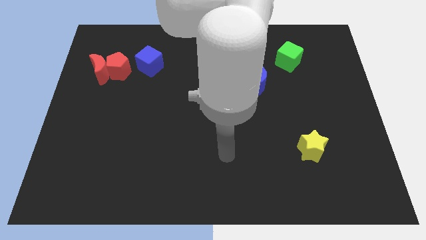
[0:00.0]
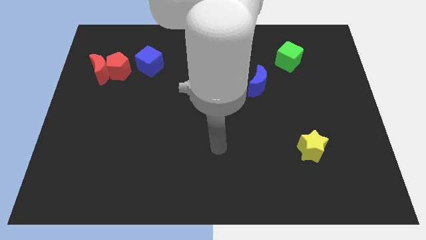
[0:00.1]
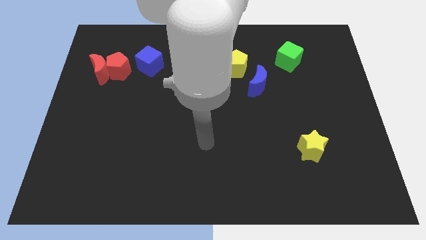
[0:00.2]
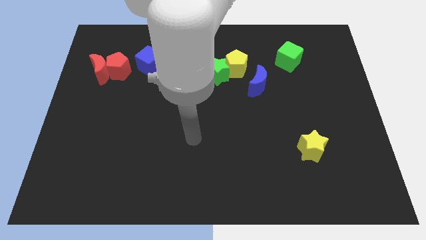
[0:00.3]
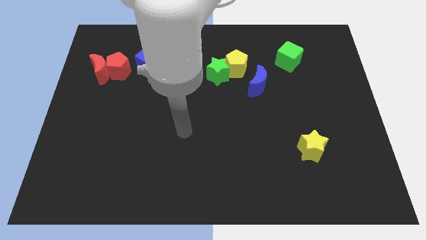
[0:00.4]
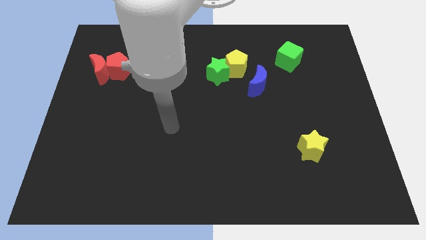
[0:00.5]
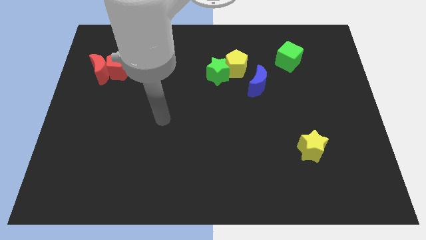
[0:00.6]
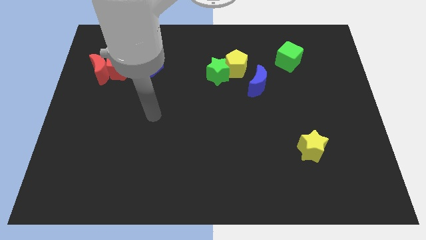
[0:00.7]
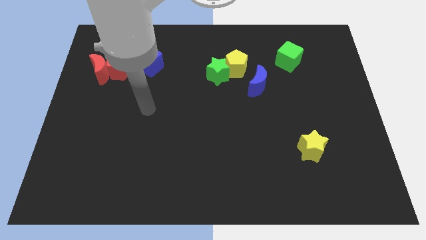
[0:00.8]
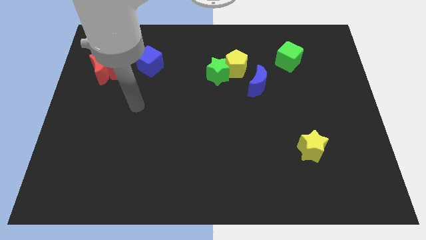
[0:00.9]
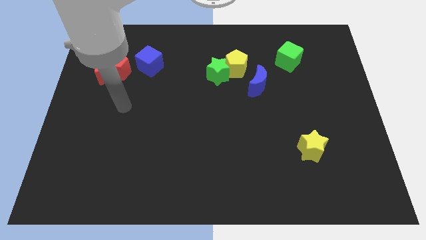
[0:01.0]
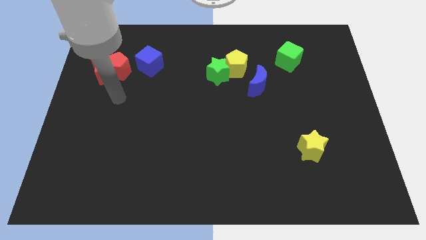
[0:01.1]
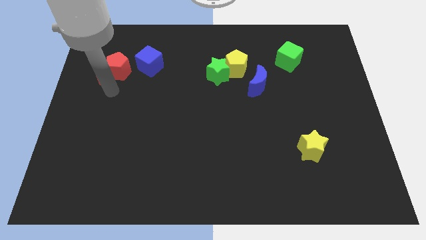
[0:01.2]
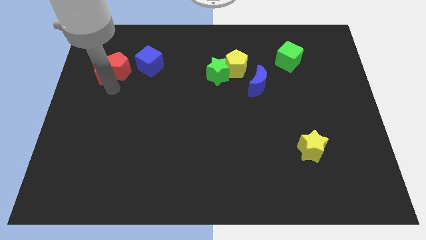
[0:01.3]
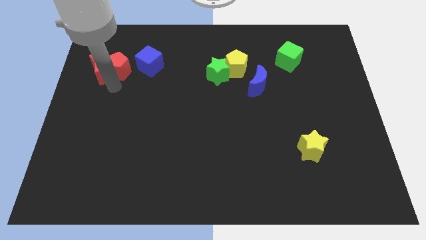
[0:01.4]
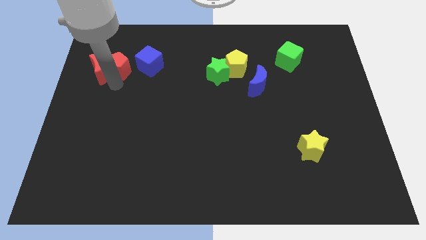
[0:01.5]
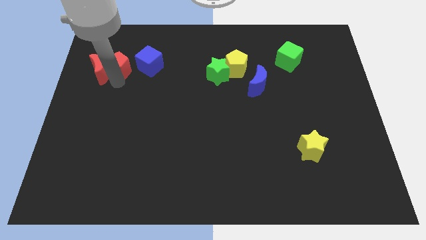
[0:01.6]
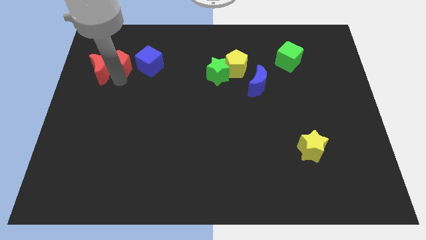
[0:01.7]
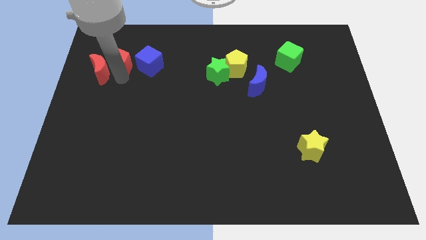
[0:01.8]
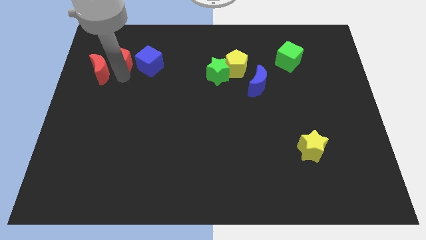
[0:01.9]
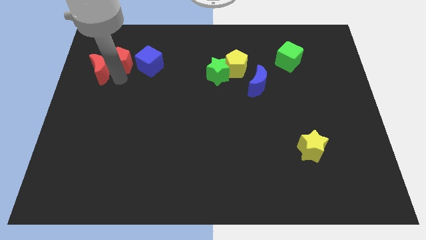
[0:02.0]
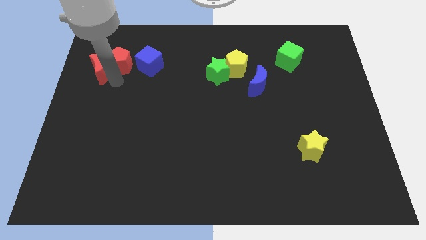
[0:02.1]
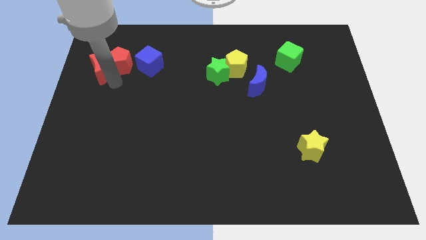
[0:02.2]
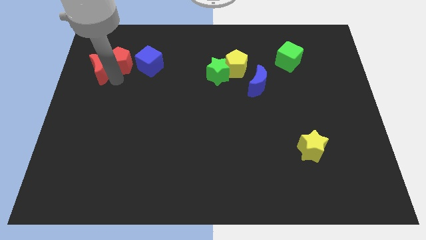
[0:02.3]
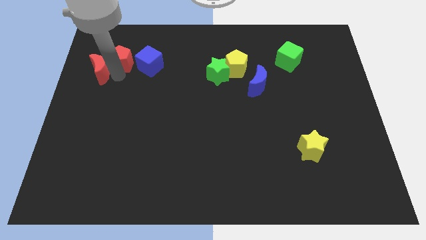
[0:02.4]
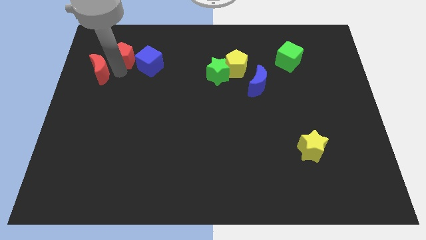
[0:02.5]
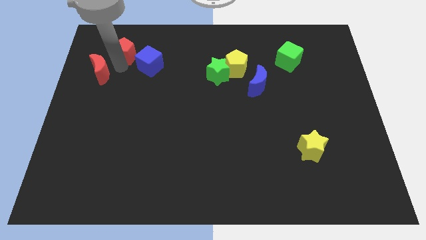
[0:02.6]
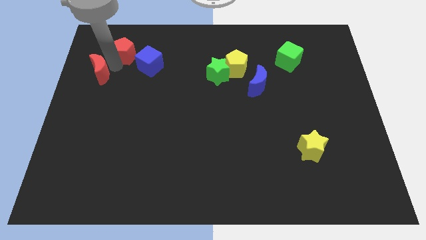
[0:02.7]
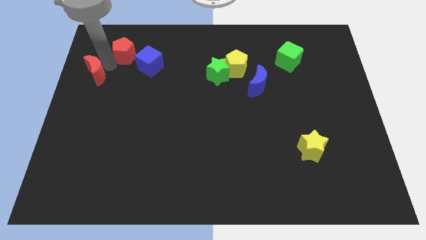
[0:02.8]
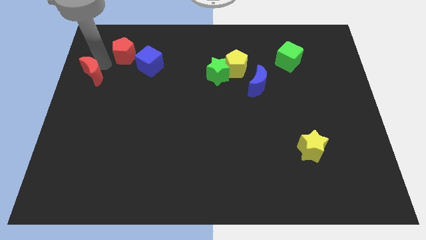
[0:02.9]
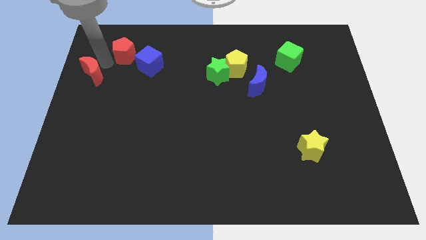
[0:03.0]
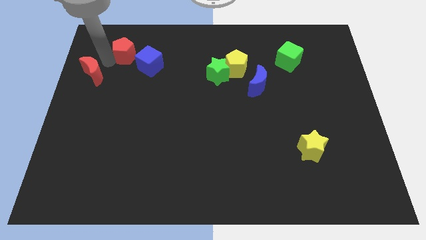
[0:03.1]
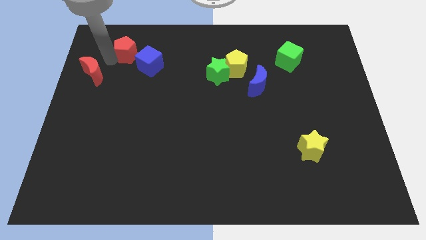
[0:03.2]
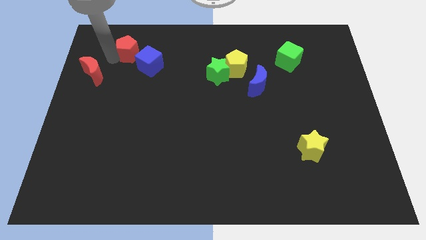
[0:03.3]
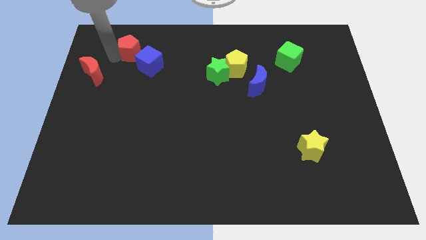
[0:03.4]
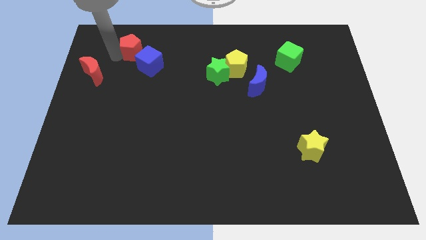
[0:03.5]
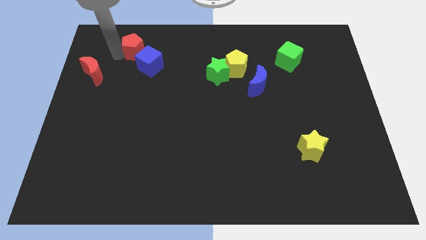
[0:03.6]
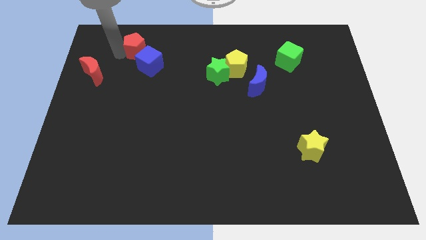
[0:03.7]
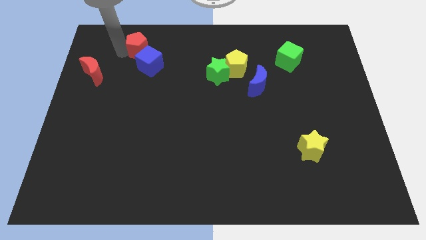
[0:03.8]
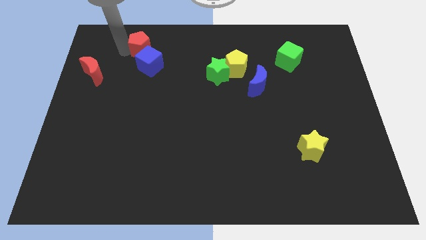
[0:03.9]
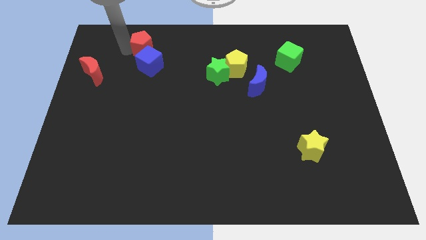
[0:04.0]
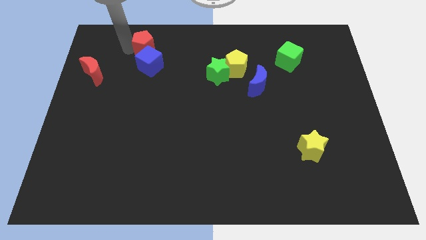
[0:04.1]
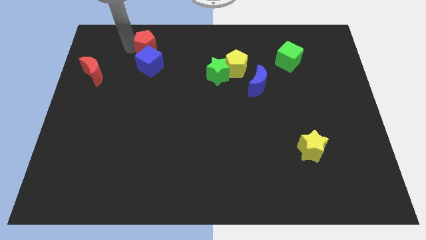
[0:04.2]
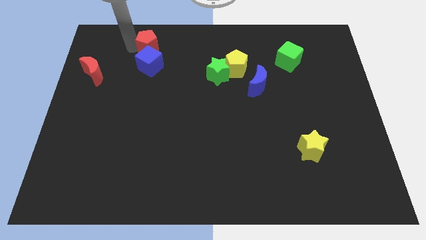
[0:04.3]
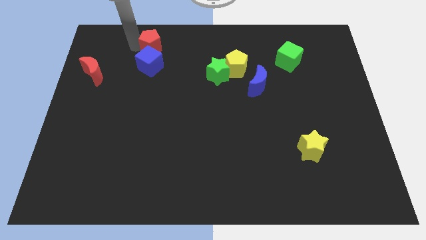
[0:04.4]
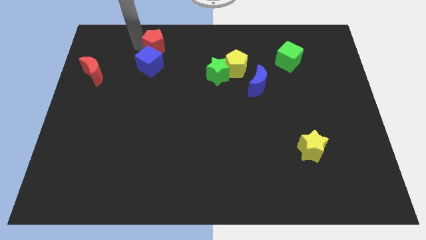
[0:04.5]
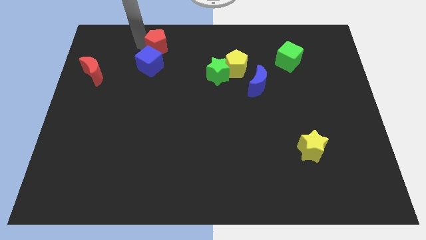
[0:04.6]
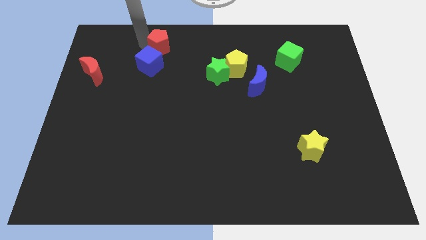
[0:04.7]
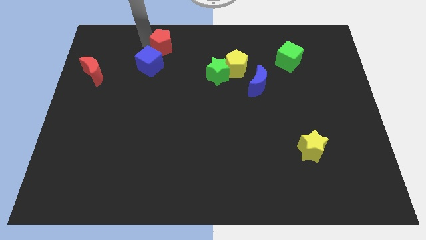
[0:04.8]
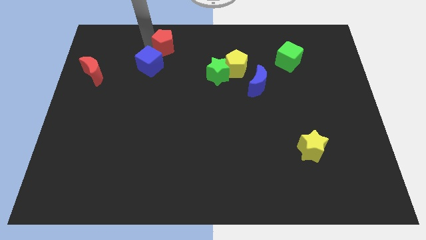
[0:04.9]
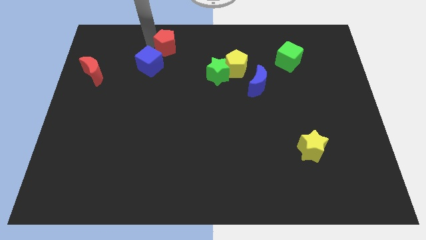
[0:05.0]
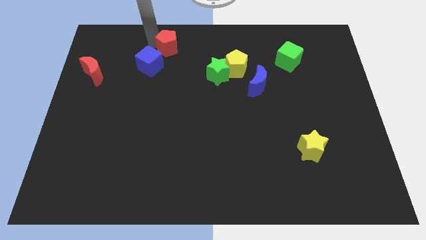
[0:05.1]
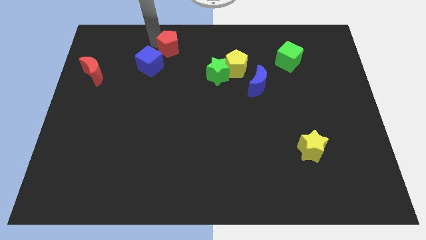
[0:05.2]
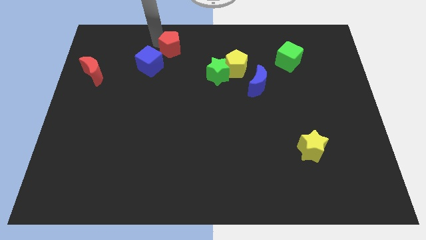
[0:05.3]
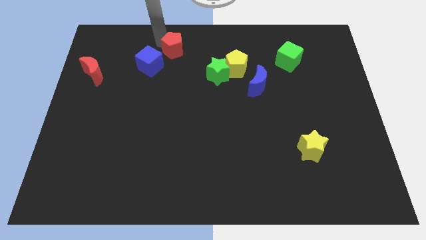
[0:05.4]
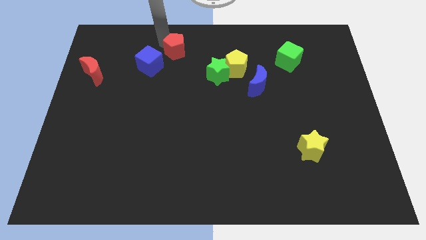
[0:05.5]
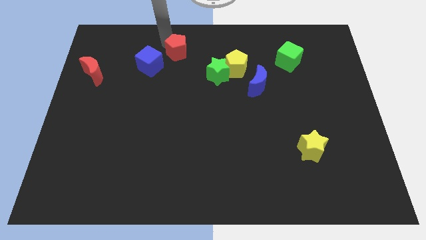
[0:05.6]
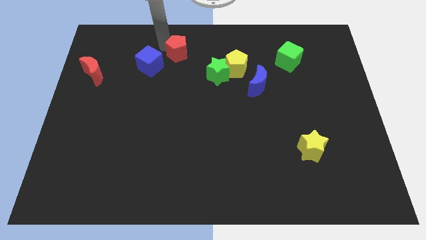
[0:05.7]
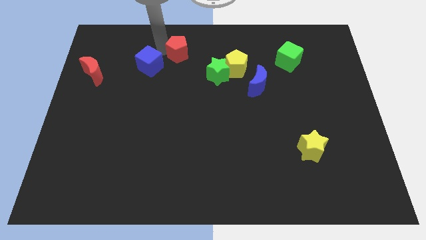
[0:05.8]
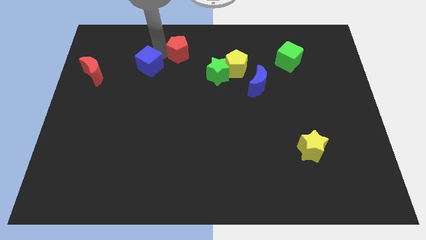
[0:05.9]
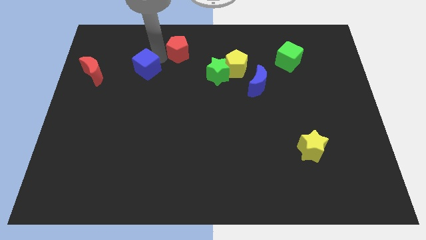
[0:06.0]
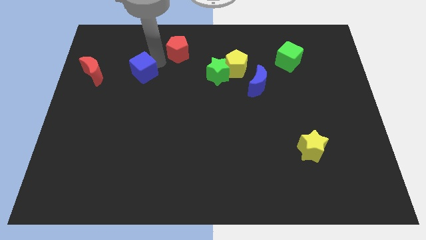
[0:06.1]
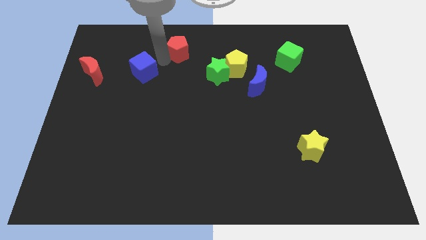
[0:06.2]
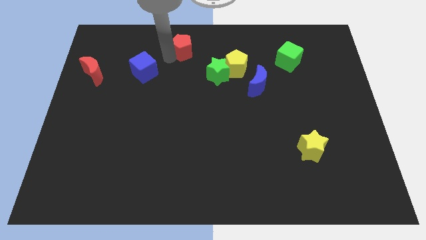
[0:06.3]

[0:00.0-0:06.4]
push the red pentagon to the towards your base
